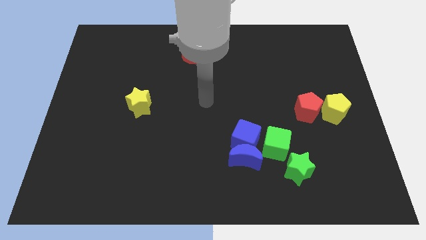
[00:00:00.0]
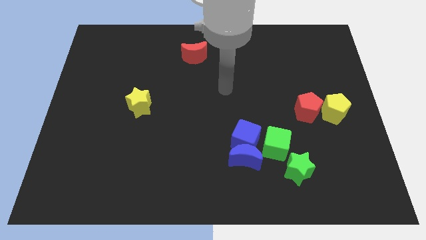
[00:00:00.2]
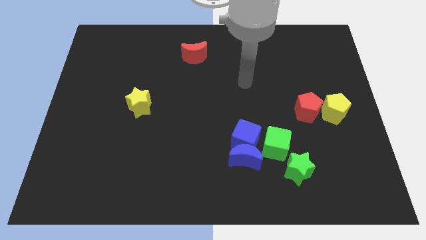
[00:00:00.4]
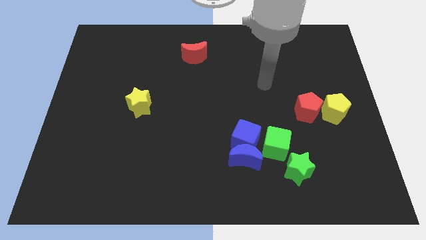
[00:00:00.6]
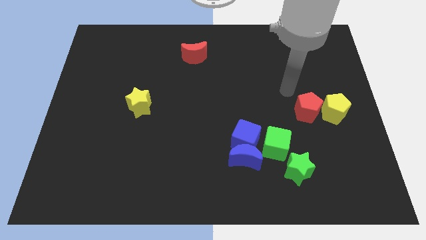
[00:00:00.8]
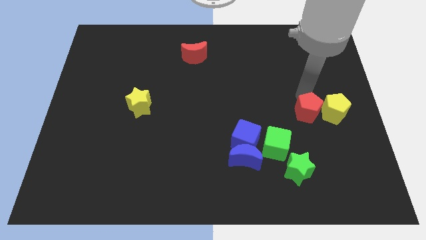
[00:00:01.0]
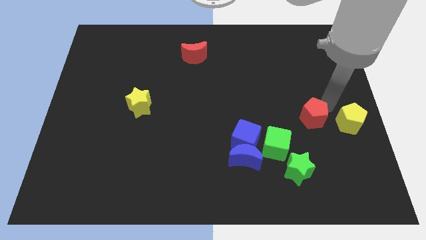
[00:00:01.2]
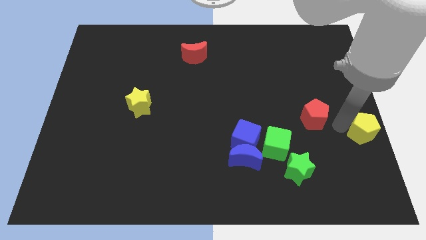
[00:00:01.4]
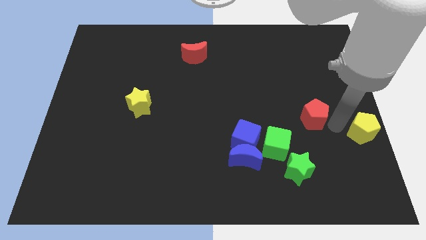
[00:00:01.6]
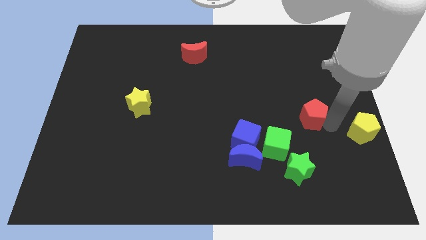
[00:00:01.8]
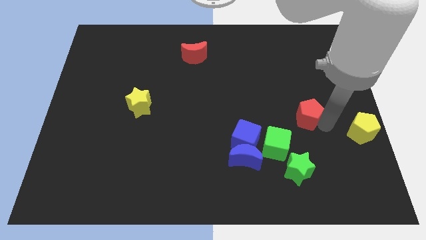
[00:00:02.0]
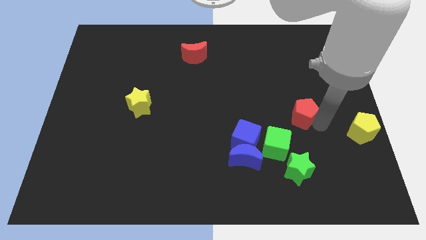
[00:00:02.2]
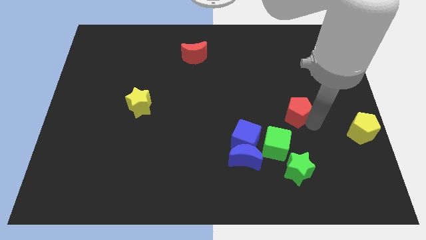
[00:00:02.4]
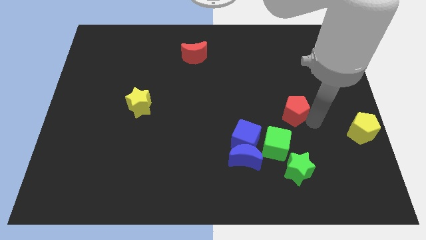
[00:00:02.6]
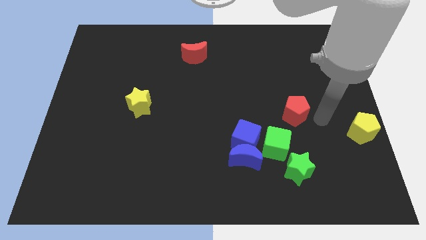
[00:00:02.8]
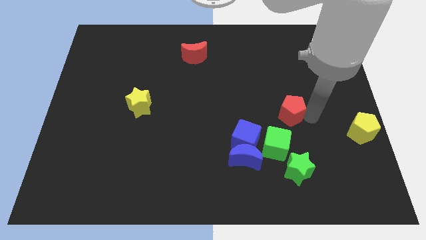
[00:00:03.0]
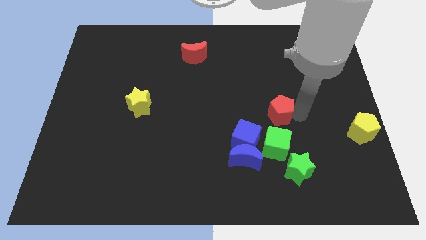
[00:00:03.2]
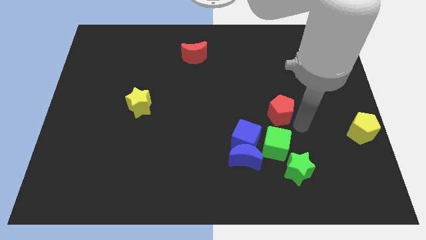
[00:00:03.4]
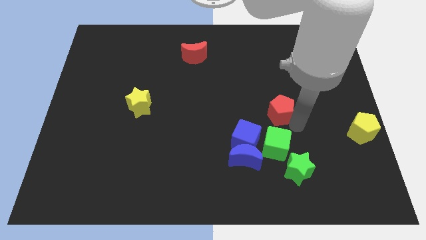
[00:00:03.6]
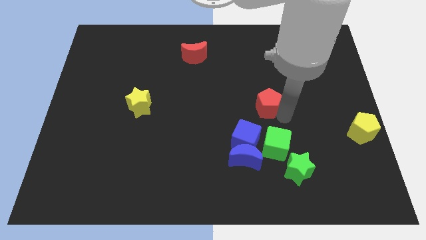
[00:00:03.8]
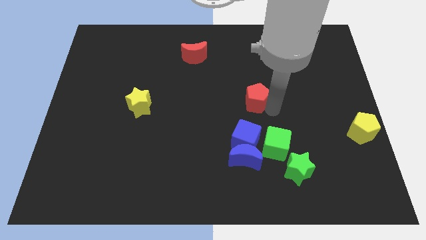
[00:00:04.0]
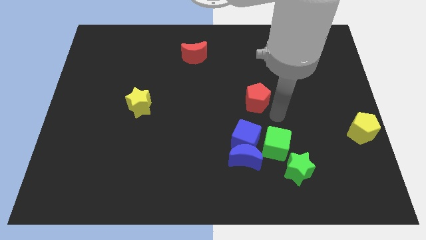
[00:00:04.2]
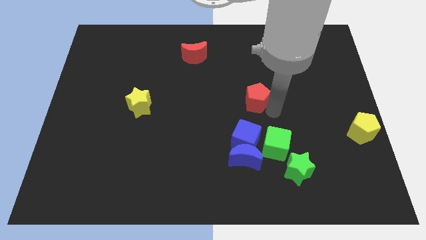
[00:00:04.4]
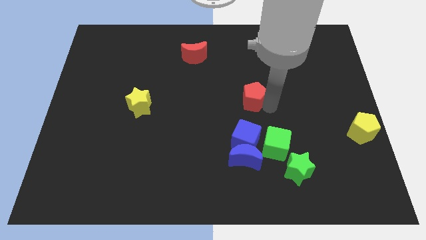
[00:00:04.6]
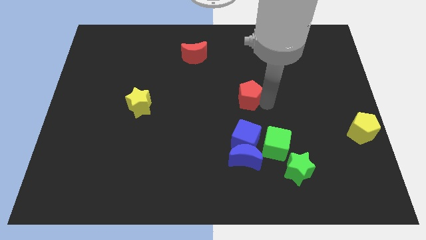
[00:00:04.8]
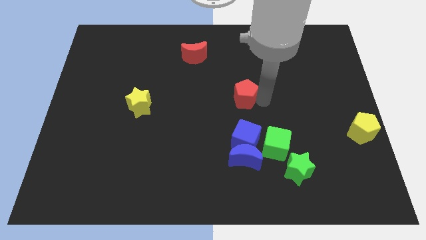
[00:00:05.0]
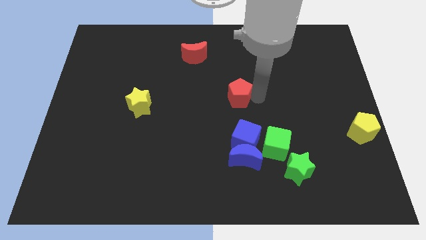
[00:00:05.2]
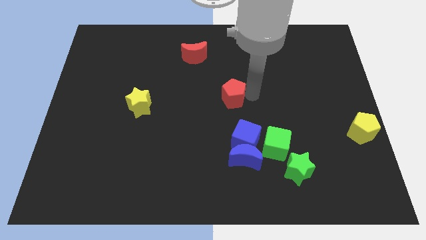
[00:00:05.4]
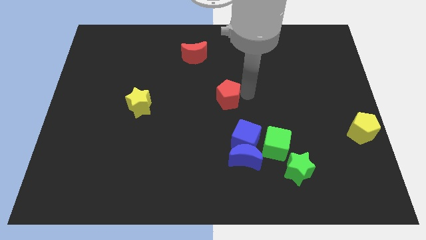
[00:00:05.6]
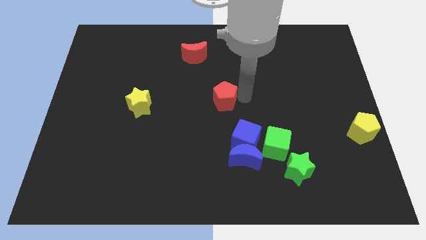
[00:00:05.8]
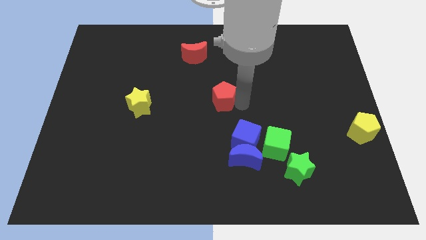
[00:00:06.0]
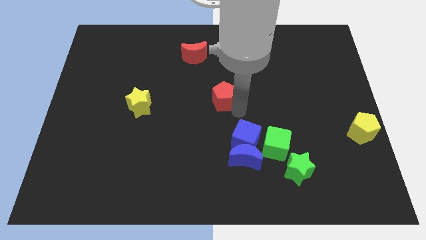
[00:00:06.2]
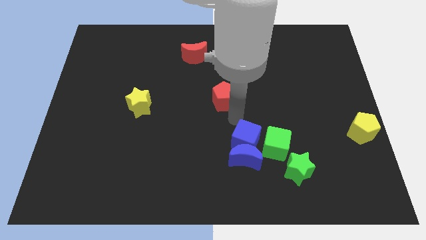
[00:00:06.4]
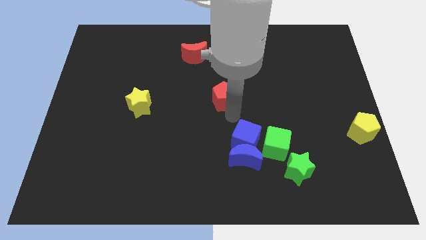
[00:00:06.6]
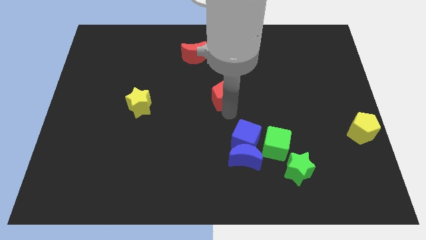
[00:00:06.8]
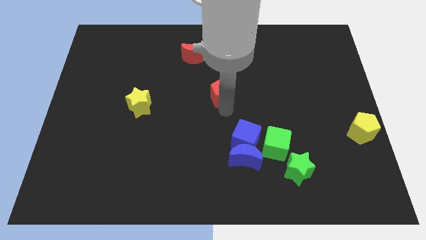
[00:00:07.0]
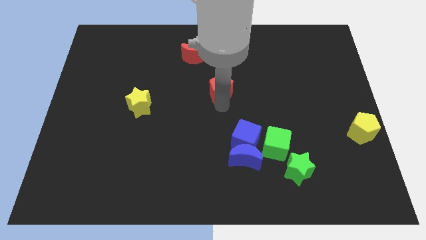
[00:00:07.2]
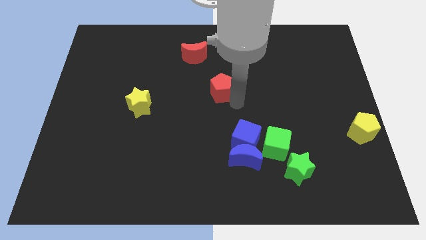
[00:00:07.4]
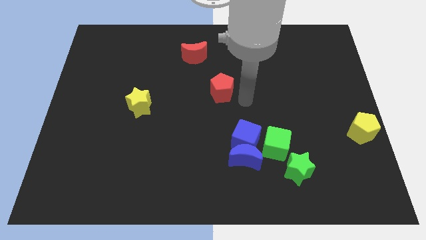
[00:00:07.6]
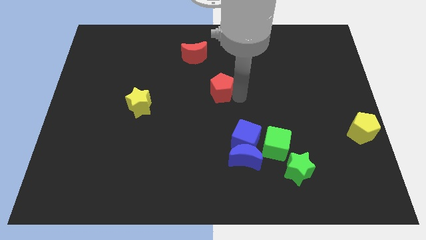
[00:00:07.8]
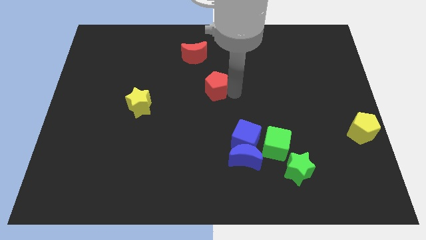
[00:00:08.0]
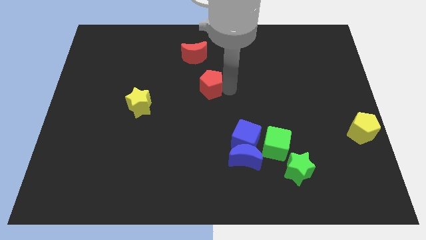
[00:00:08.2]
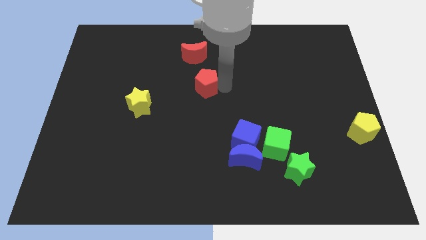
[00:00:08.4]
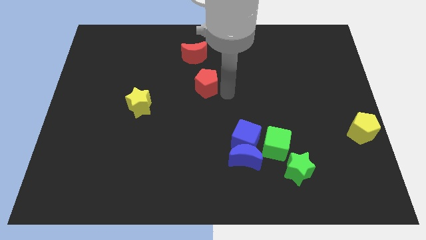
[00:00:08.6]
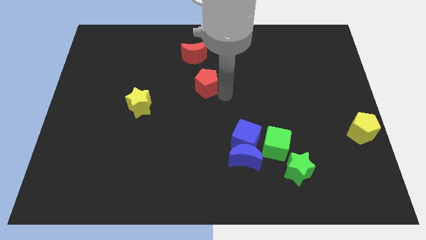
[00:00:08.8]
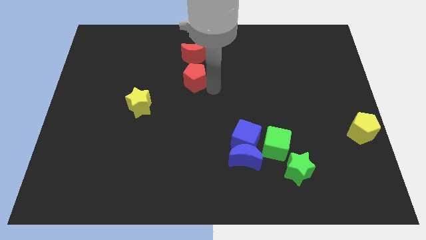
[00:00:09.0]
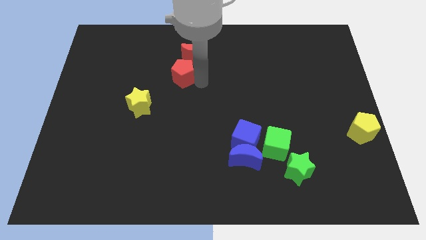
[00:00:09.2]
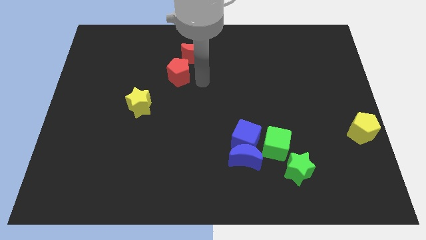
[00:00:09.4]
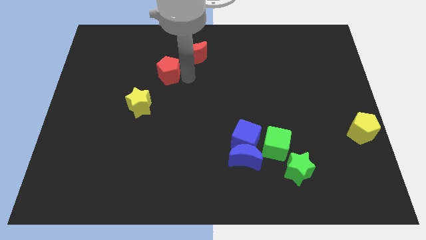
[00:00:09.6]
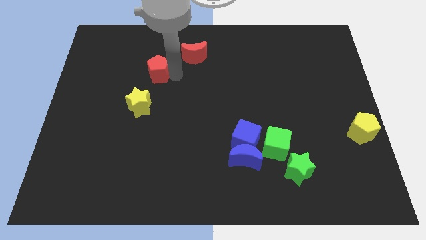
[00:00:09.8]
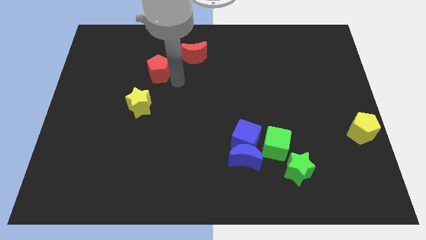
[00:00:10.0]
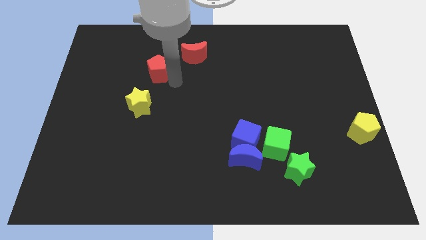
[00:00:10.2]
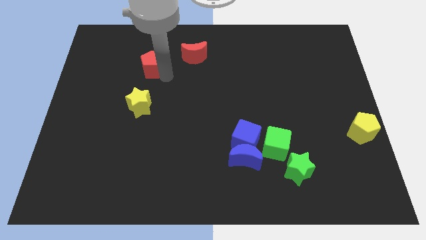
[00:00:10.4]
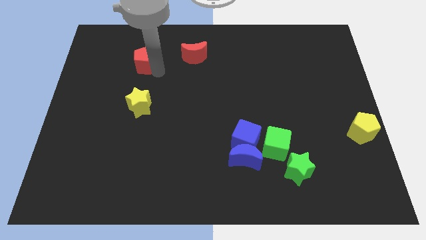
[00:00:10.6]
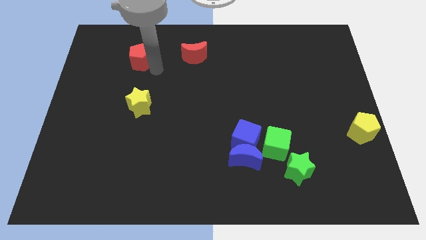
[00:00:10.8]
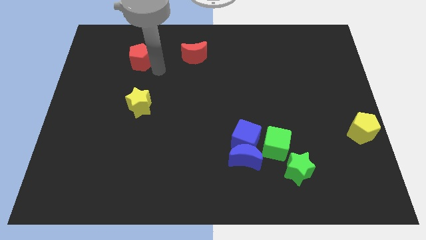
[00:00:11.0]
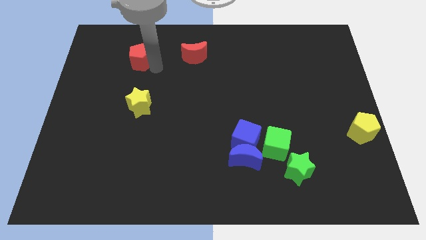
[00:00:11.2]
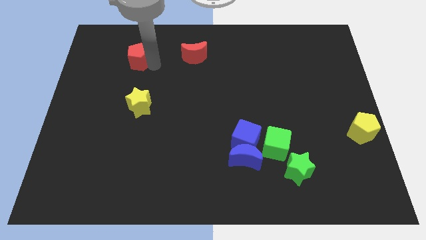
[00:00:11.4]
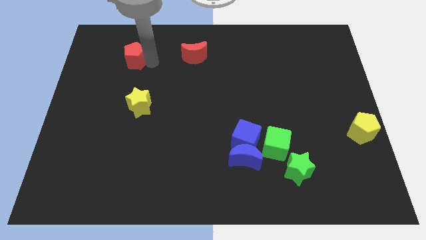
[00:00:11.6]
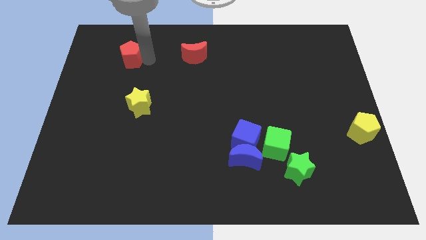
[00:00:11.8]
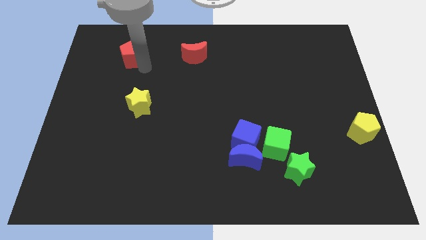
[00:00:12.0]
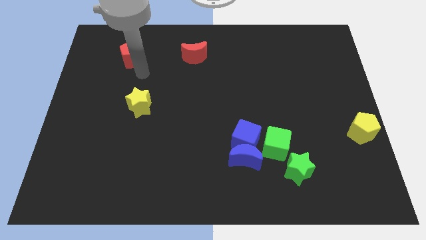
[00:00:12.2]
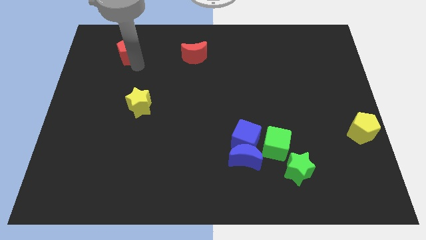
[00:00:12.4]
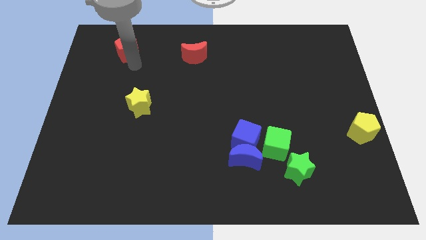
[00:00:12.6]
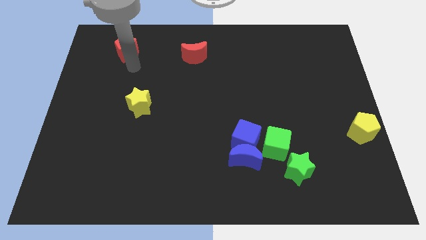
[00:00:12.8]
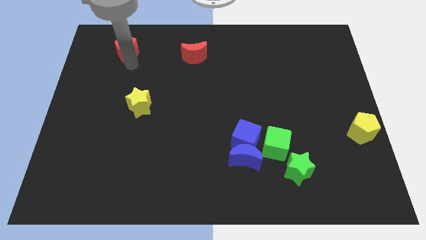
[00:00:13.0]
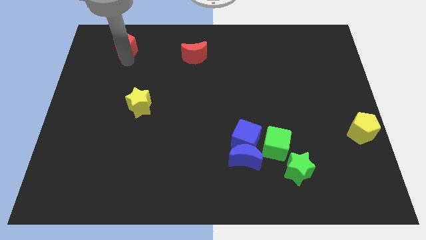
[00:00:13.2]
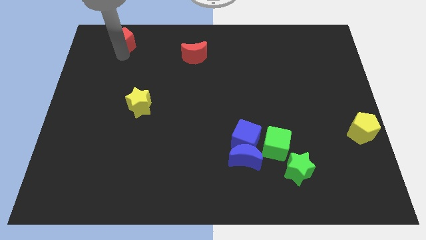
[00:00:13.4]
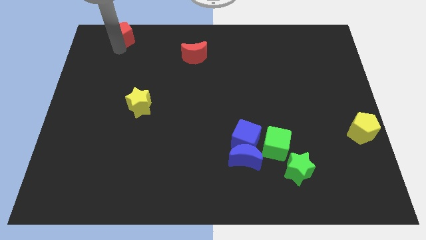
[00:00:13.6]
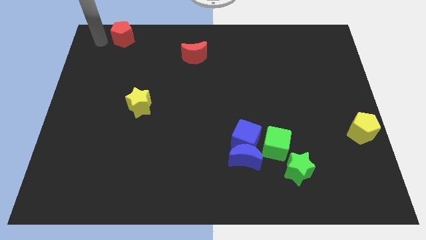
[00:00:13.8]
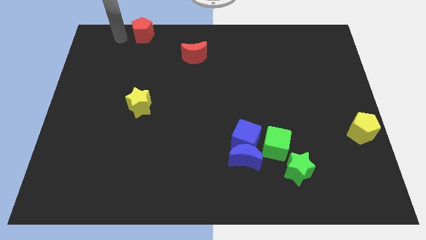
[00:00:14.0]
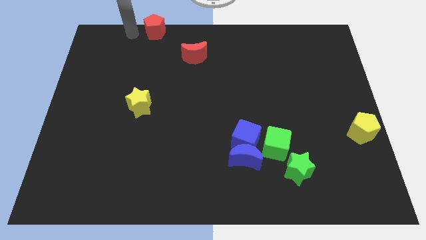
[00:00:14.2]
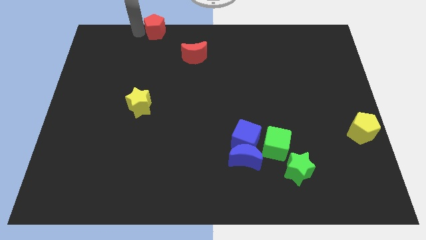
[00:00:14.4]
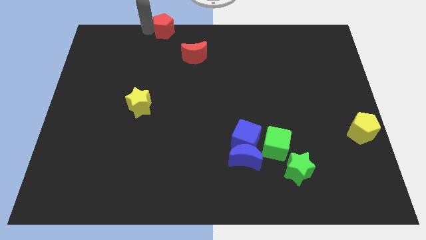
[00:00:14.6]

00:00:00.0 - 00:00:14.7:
move the red pentagon to the top side
